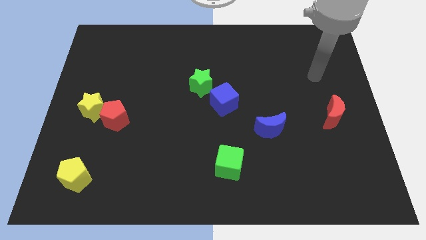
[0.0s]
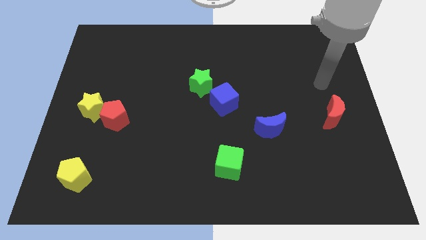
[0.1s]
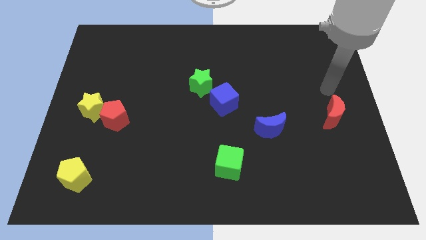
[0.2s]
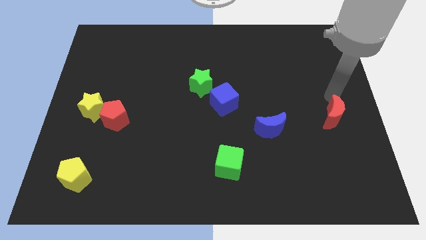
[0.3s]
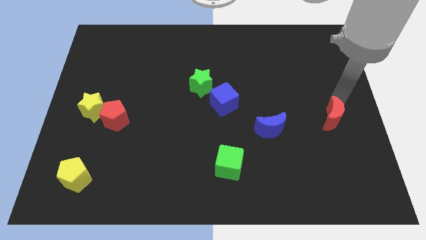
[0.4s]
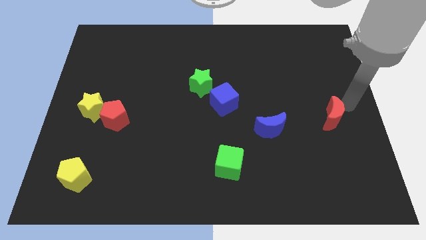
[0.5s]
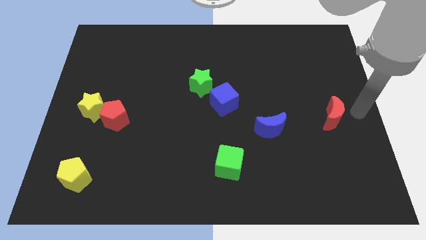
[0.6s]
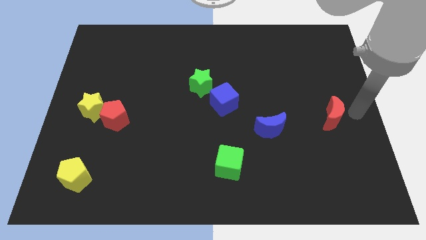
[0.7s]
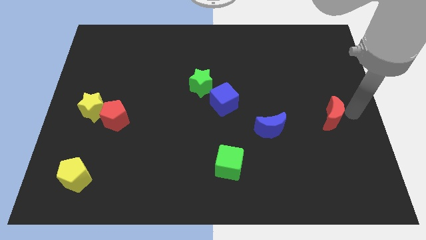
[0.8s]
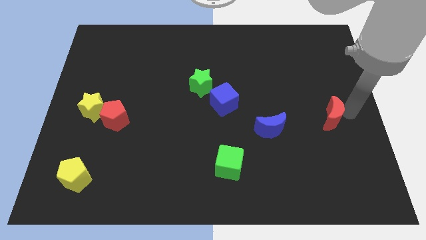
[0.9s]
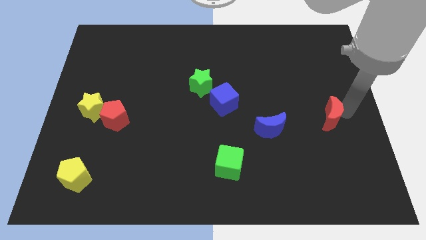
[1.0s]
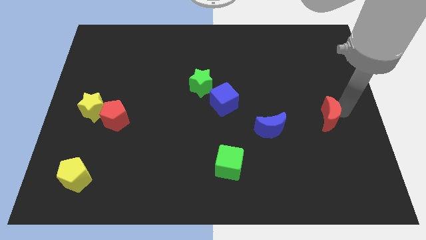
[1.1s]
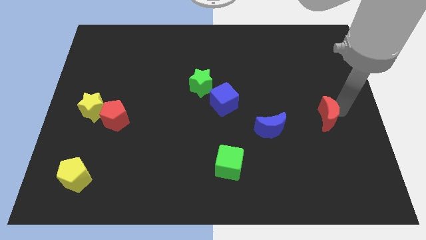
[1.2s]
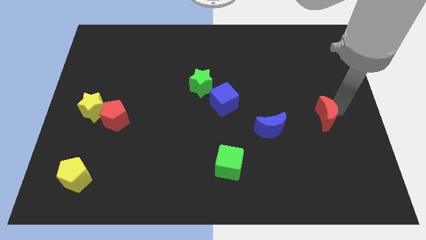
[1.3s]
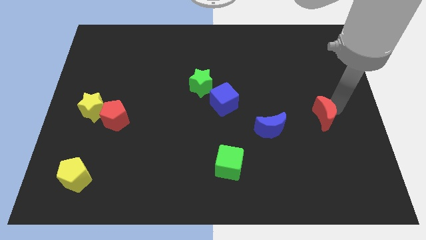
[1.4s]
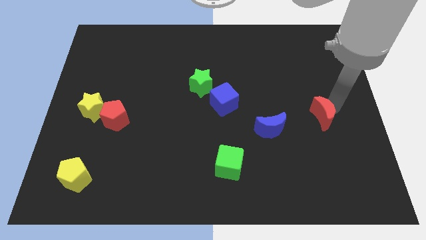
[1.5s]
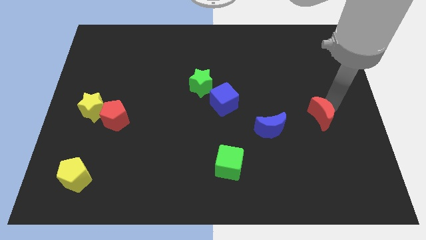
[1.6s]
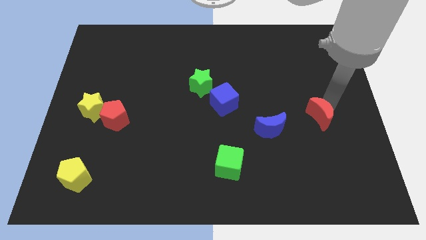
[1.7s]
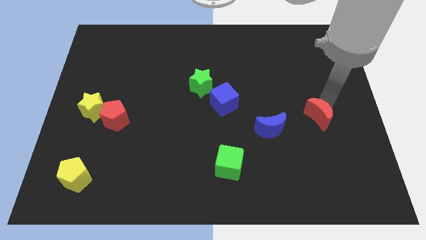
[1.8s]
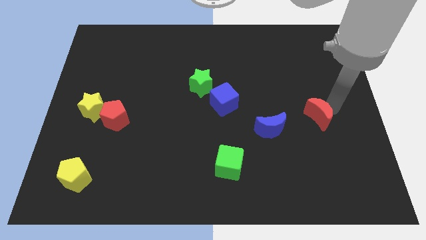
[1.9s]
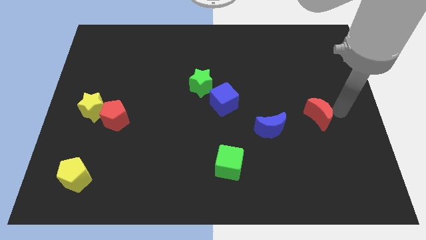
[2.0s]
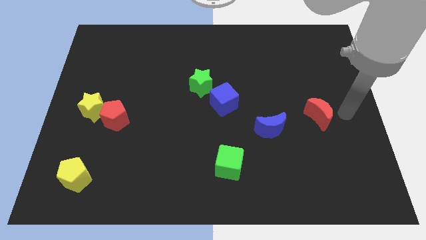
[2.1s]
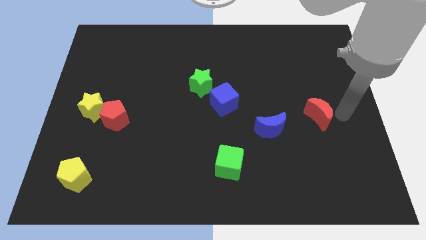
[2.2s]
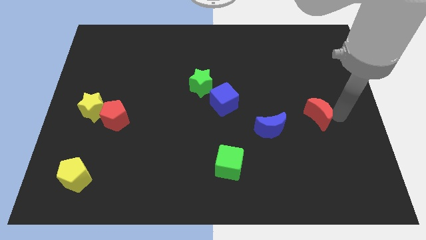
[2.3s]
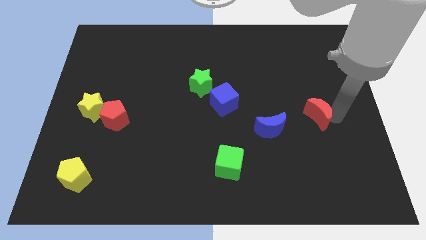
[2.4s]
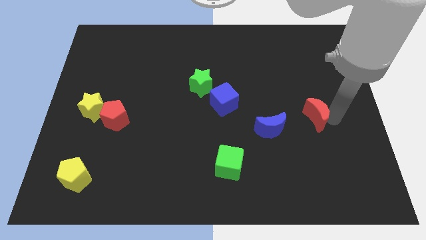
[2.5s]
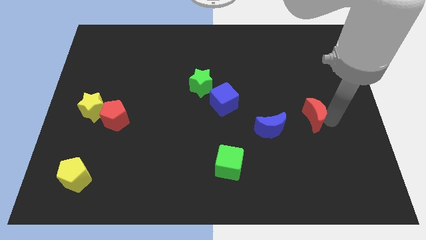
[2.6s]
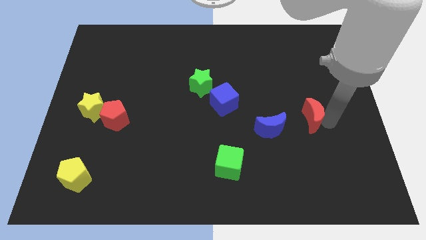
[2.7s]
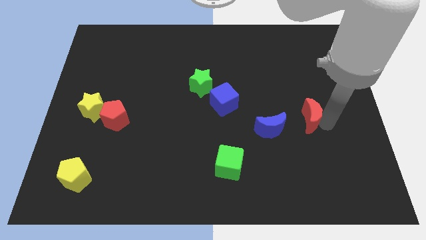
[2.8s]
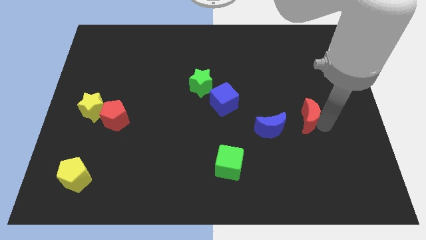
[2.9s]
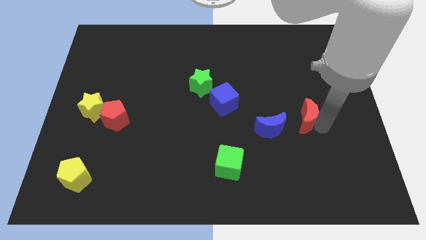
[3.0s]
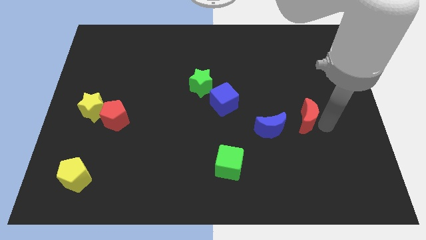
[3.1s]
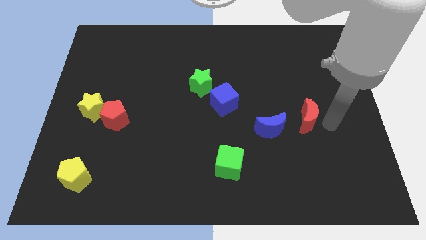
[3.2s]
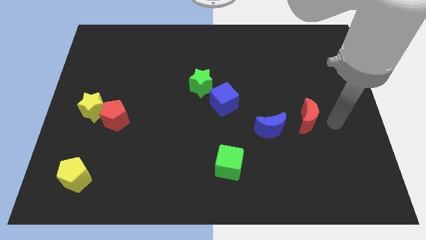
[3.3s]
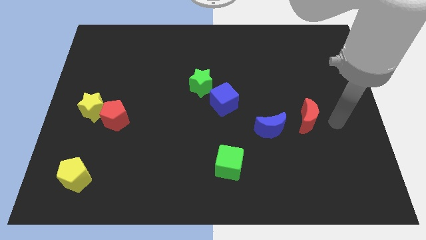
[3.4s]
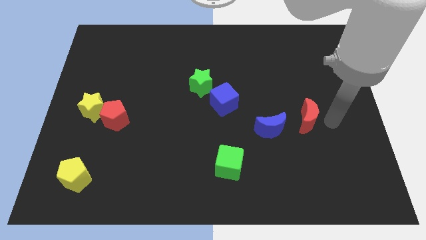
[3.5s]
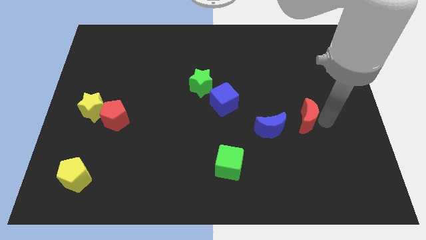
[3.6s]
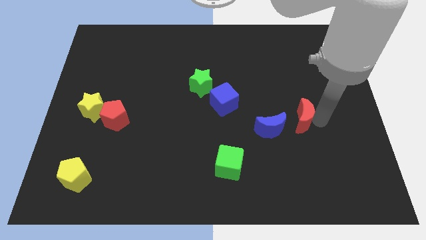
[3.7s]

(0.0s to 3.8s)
slightly push the red moon to the left

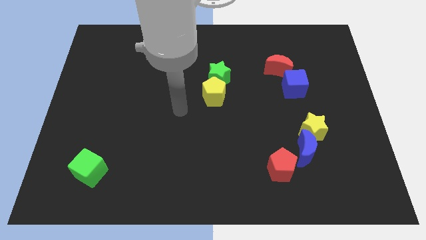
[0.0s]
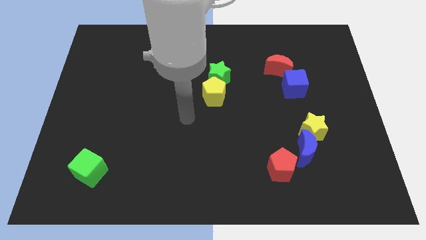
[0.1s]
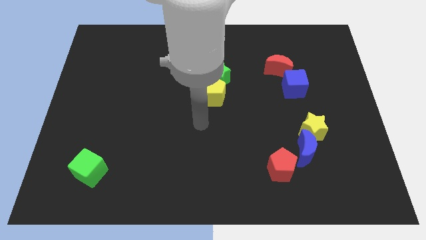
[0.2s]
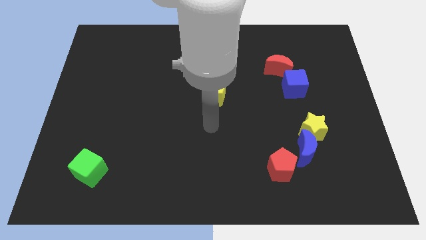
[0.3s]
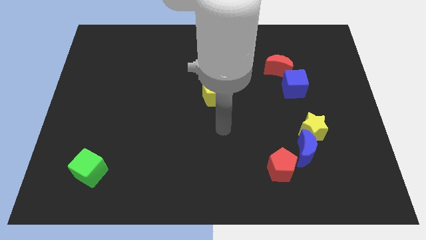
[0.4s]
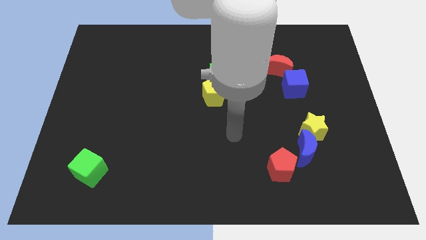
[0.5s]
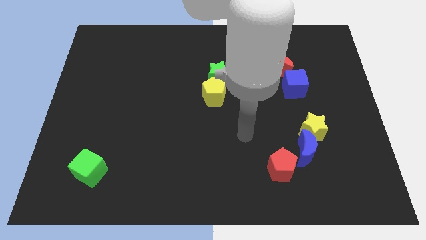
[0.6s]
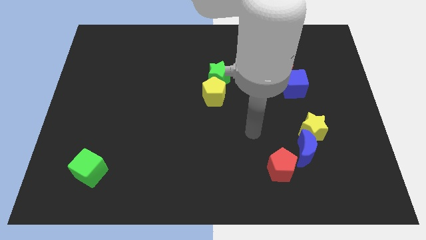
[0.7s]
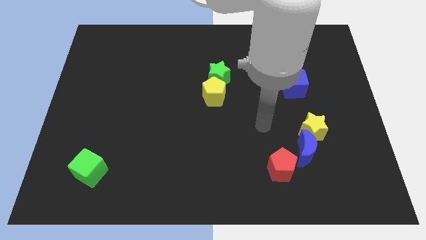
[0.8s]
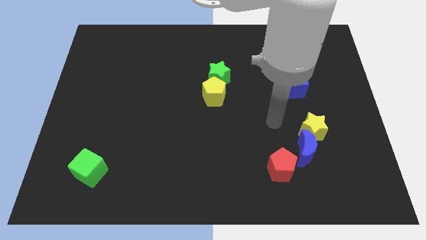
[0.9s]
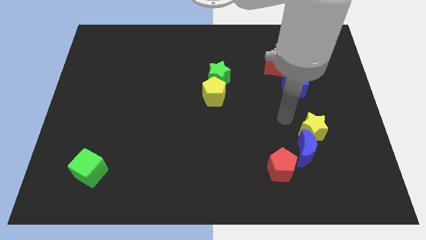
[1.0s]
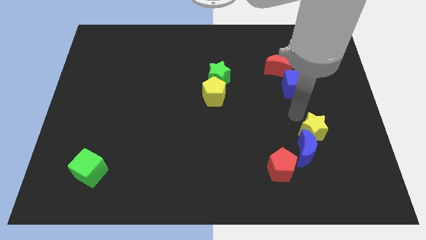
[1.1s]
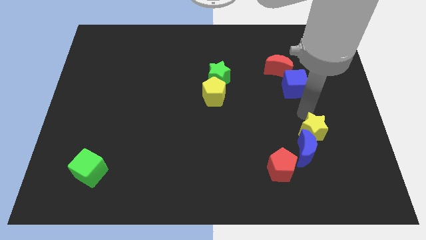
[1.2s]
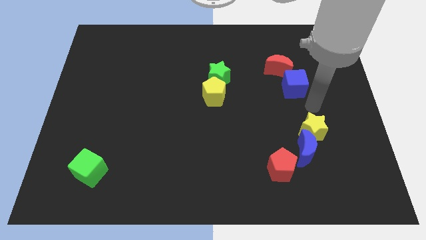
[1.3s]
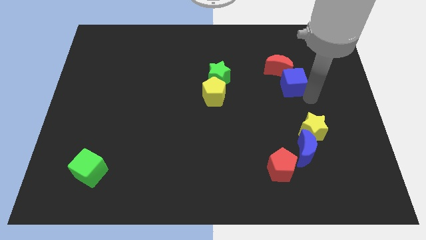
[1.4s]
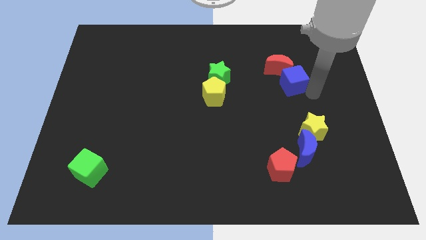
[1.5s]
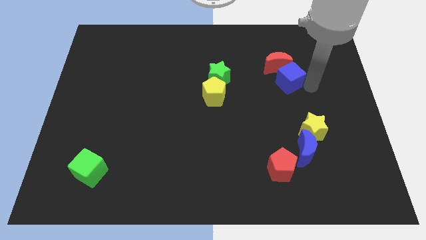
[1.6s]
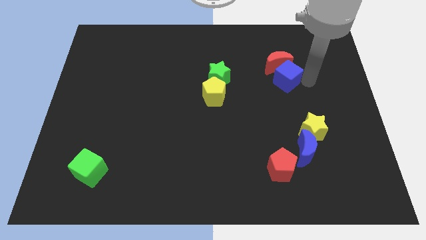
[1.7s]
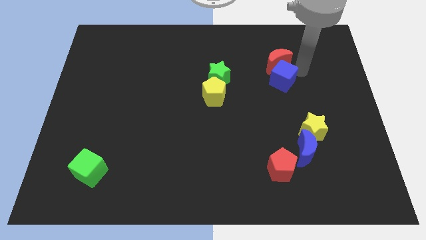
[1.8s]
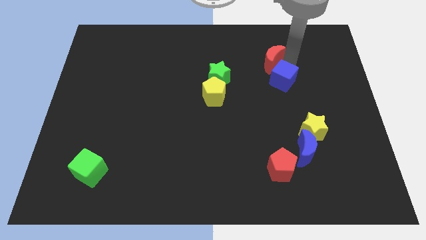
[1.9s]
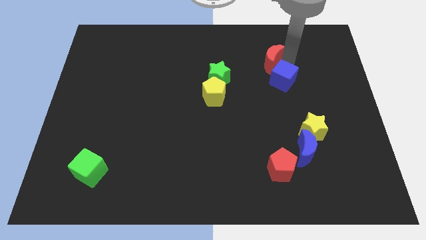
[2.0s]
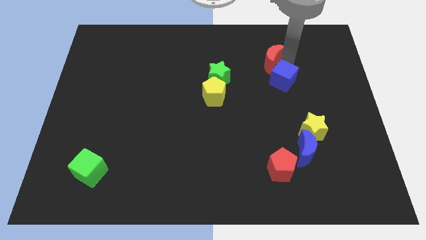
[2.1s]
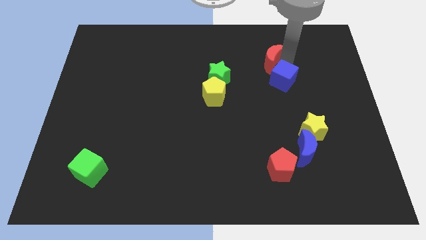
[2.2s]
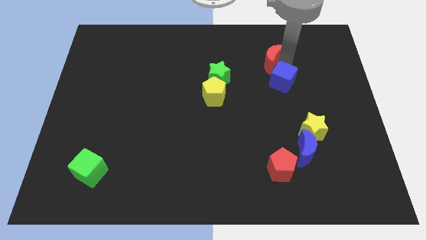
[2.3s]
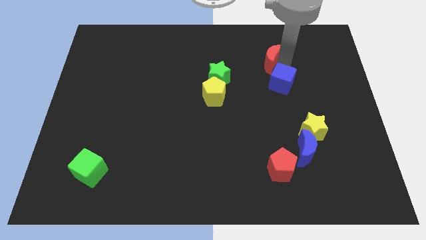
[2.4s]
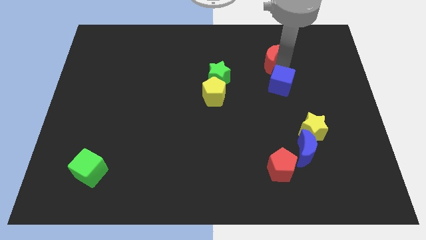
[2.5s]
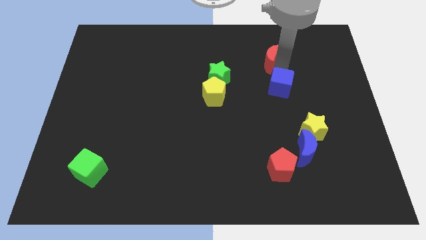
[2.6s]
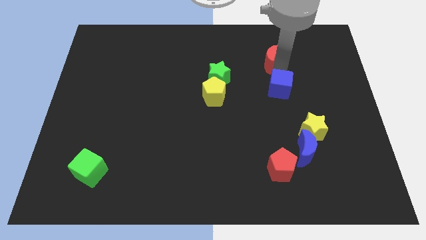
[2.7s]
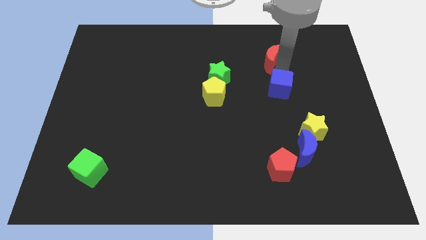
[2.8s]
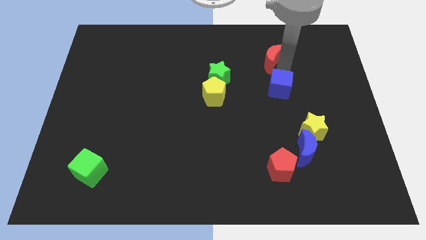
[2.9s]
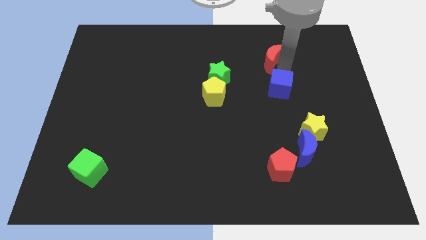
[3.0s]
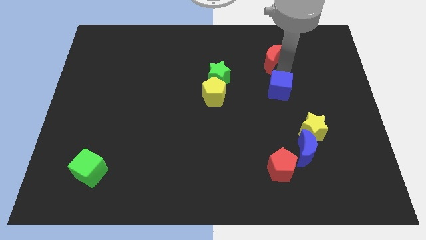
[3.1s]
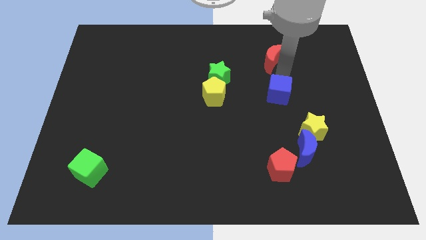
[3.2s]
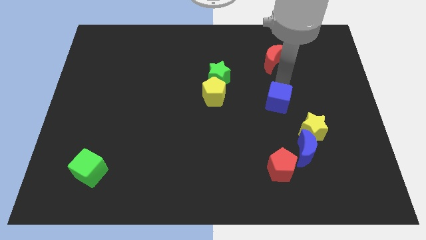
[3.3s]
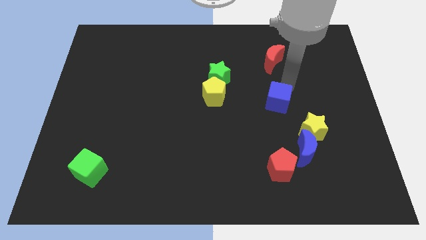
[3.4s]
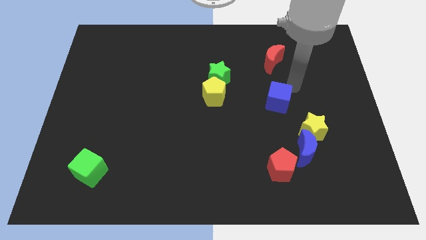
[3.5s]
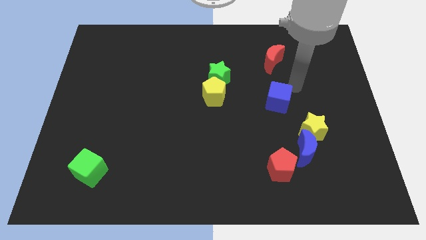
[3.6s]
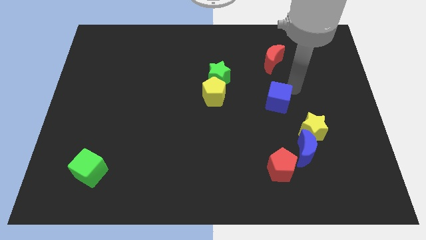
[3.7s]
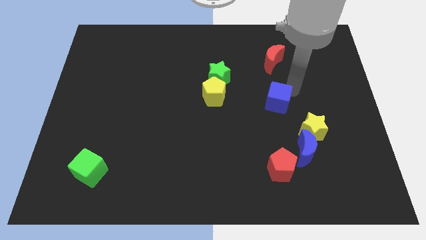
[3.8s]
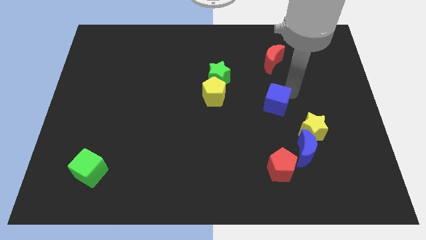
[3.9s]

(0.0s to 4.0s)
push the blue cube down and to the left diagonally a bit

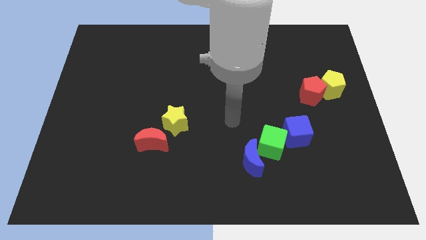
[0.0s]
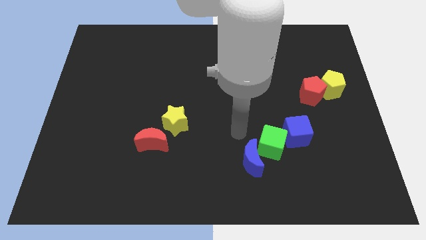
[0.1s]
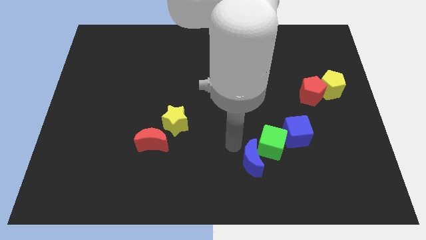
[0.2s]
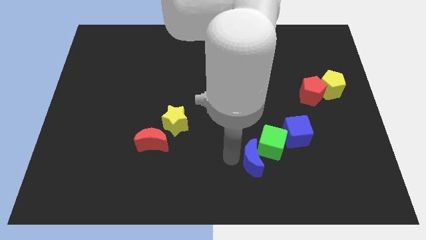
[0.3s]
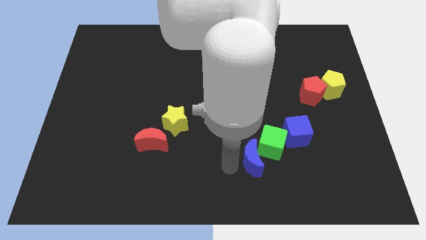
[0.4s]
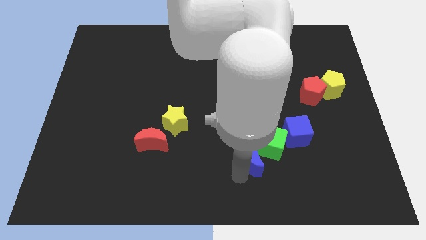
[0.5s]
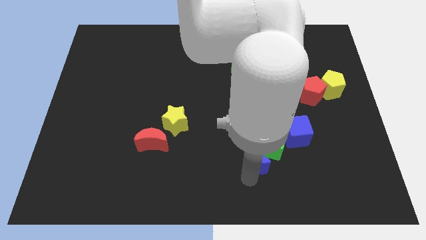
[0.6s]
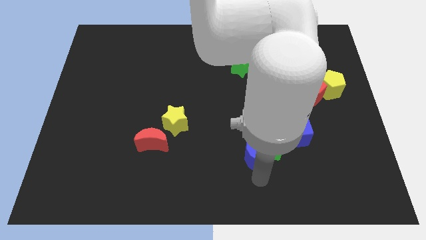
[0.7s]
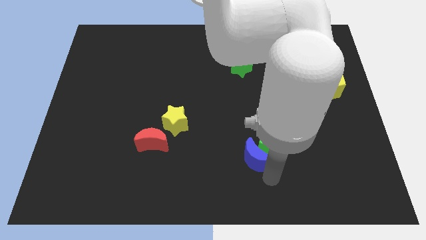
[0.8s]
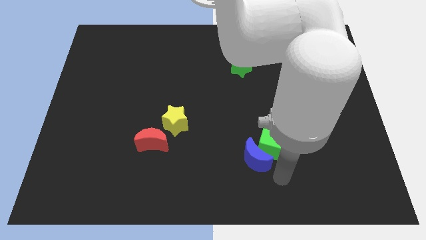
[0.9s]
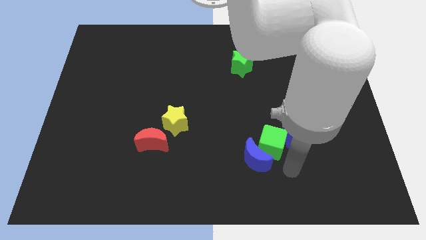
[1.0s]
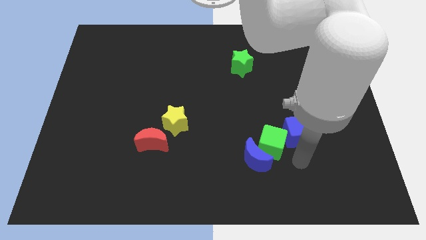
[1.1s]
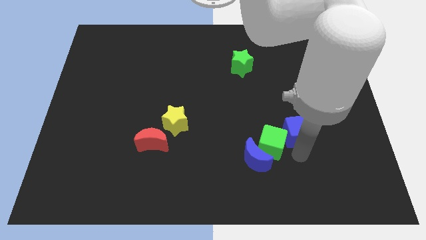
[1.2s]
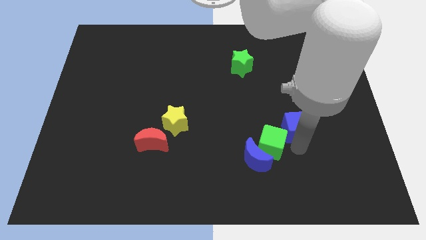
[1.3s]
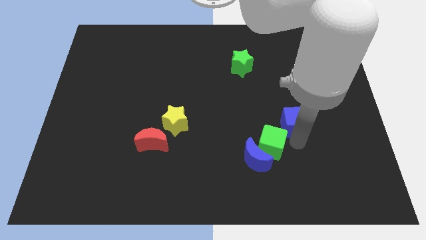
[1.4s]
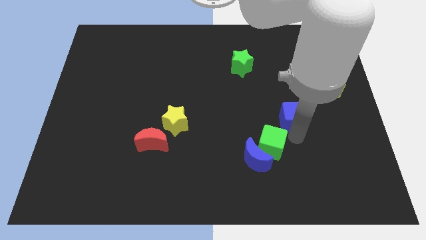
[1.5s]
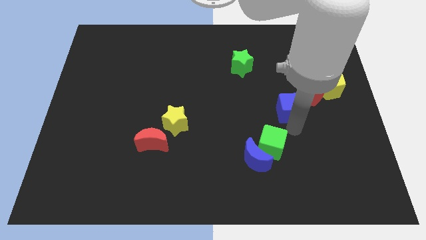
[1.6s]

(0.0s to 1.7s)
move the blue cube upwards a little bit
